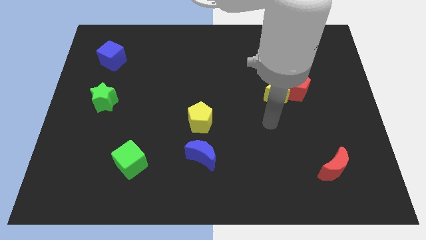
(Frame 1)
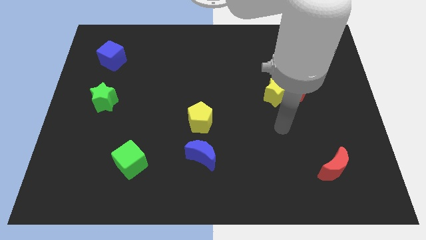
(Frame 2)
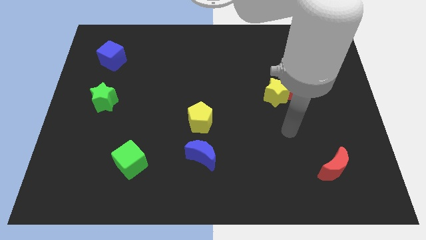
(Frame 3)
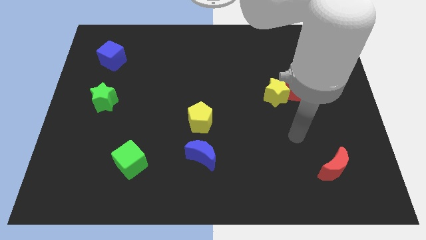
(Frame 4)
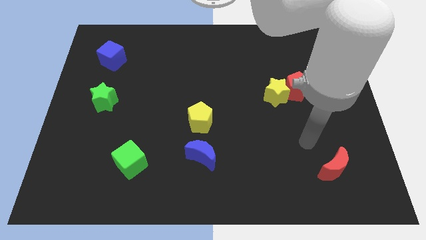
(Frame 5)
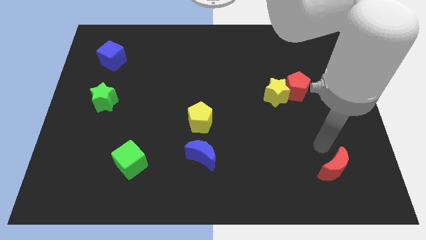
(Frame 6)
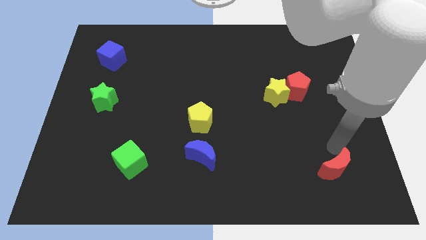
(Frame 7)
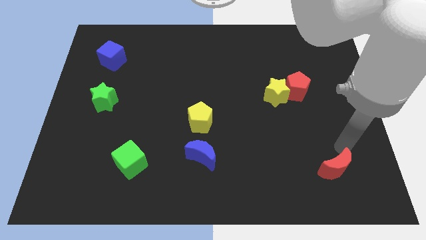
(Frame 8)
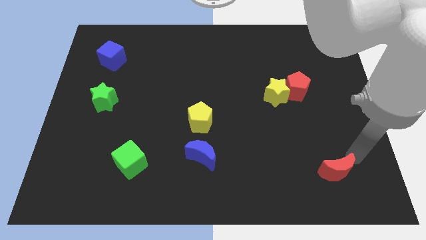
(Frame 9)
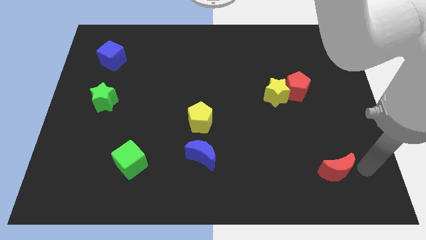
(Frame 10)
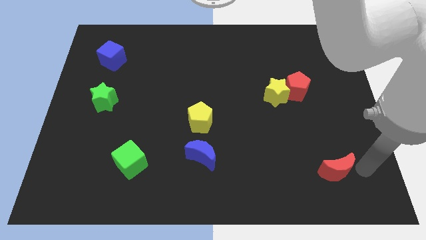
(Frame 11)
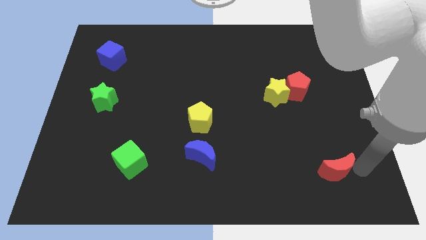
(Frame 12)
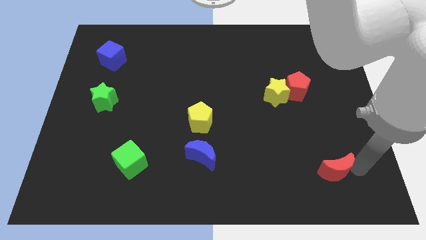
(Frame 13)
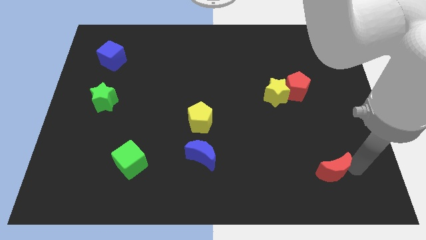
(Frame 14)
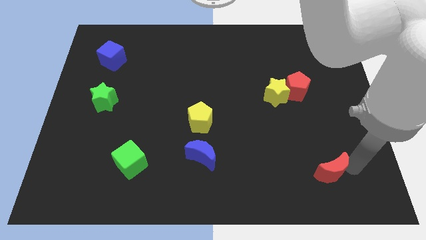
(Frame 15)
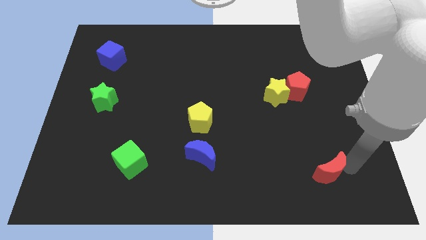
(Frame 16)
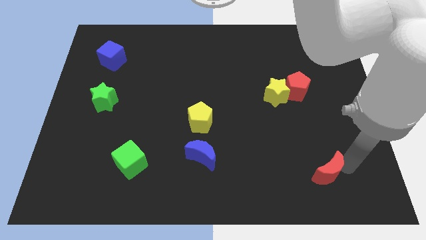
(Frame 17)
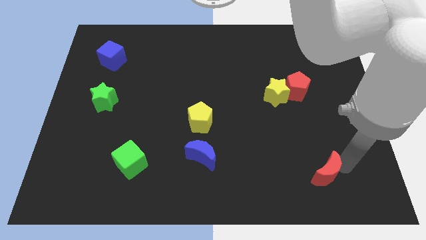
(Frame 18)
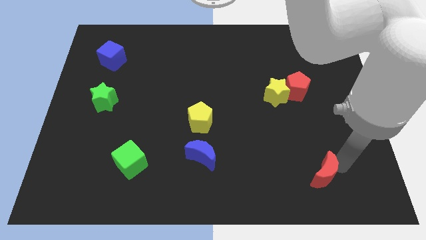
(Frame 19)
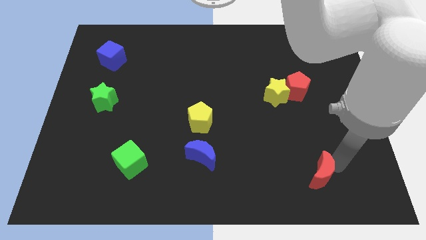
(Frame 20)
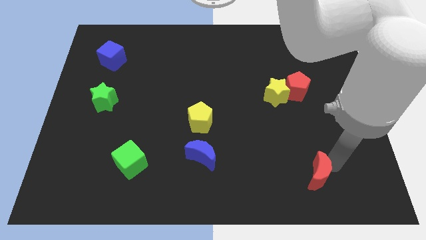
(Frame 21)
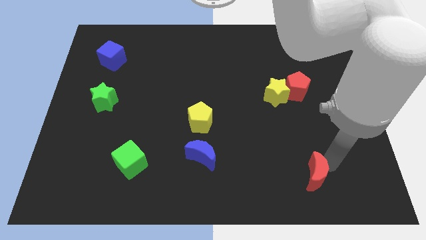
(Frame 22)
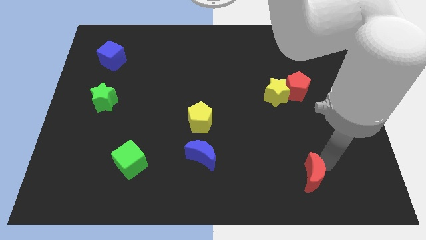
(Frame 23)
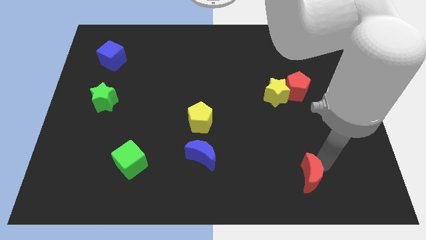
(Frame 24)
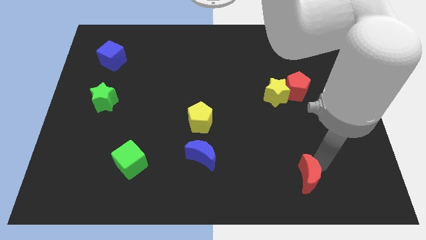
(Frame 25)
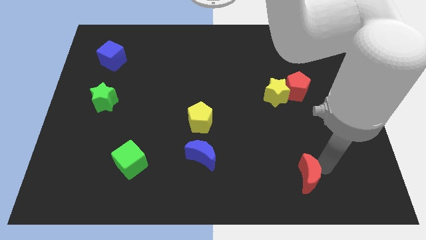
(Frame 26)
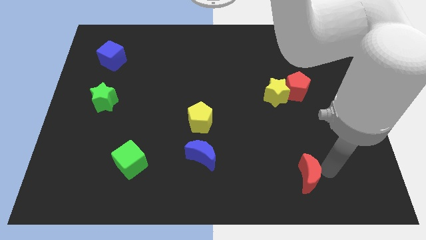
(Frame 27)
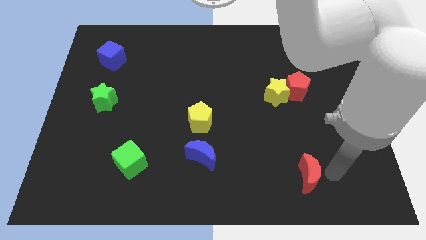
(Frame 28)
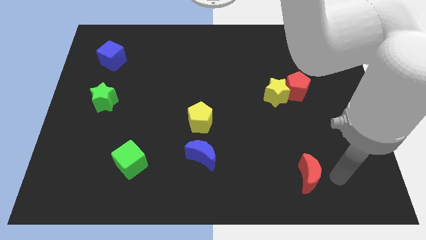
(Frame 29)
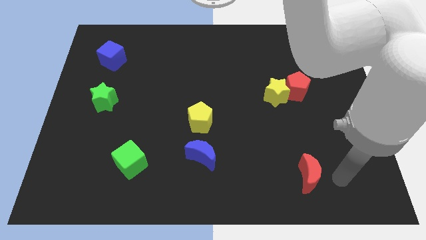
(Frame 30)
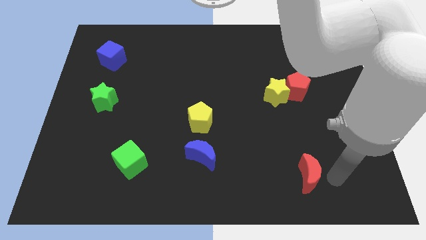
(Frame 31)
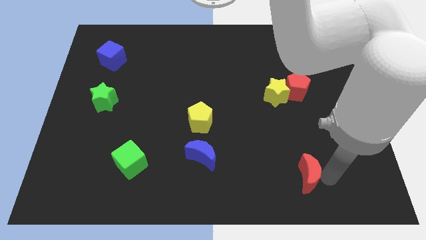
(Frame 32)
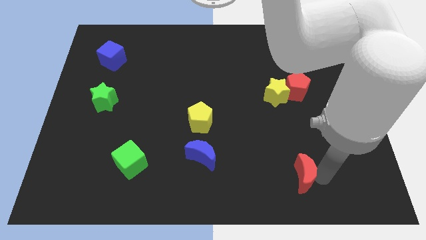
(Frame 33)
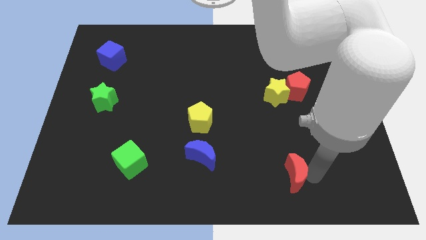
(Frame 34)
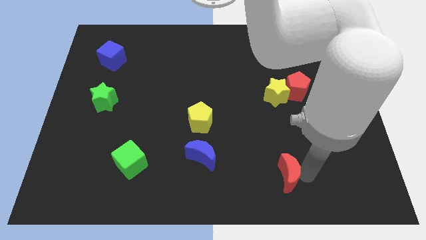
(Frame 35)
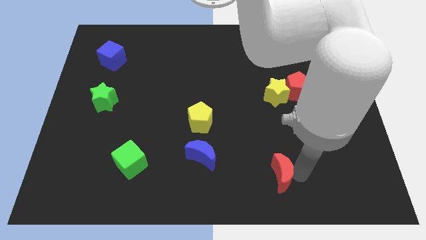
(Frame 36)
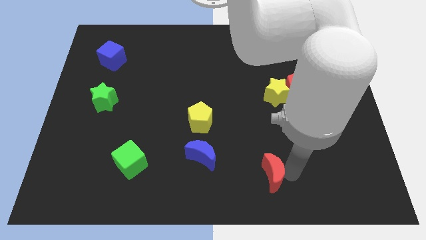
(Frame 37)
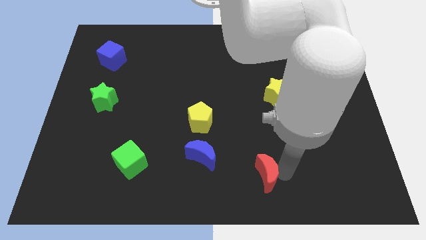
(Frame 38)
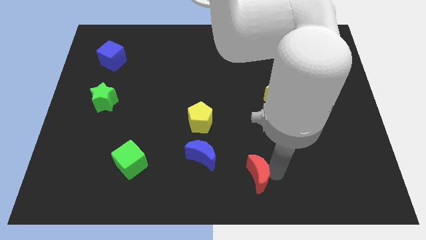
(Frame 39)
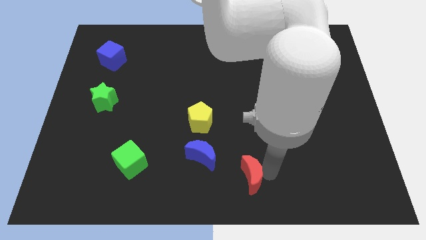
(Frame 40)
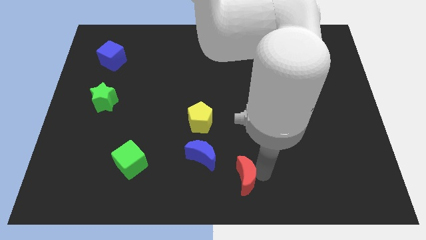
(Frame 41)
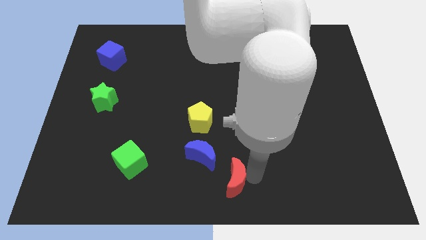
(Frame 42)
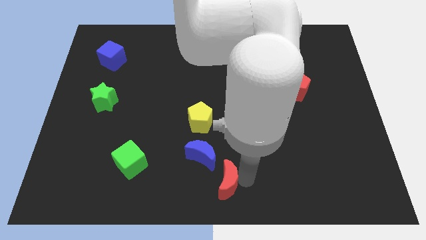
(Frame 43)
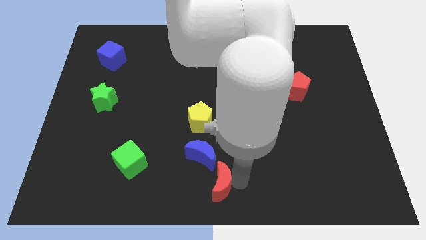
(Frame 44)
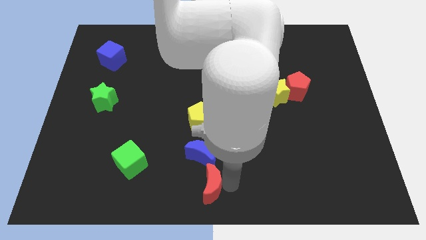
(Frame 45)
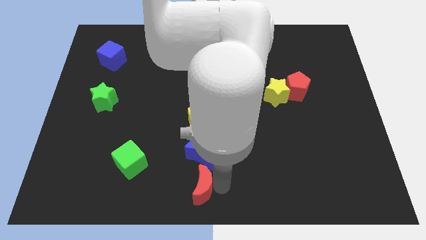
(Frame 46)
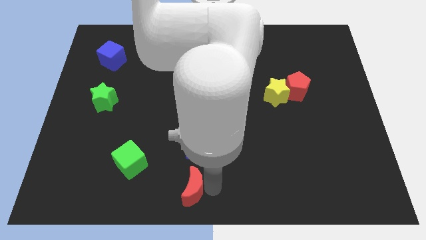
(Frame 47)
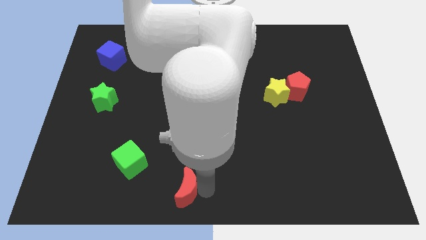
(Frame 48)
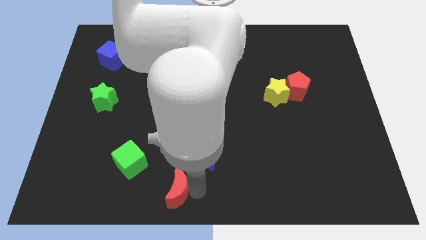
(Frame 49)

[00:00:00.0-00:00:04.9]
push the red moon diagonally down and to the right of the green cube

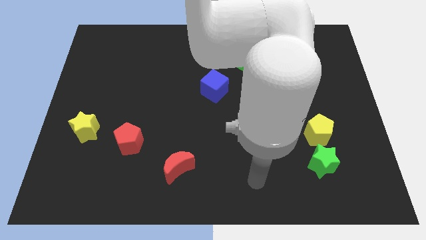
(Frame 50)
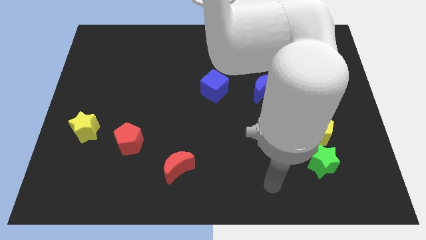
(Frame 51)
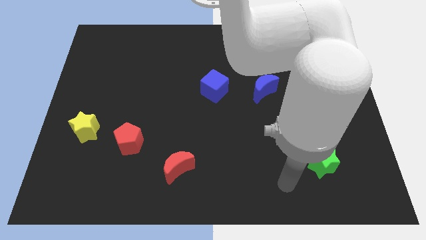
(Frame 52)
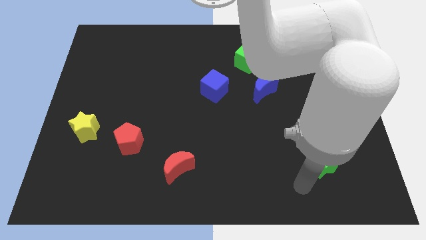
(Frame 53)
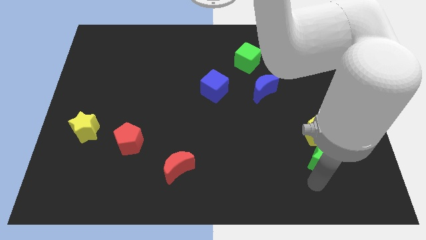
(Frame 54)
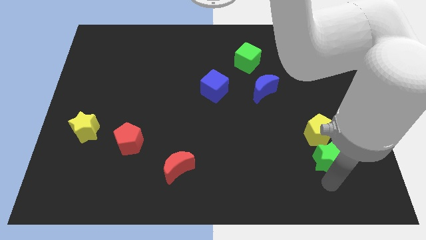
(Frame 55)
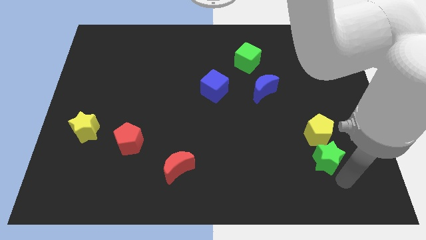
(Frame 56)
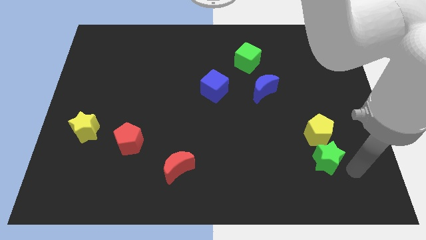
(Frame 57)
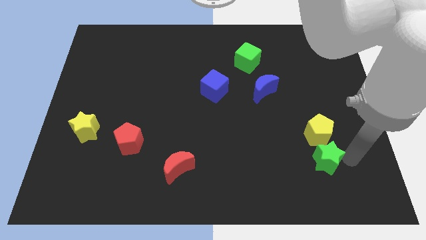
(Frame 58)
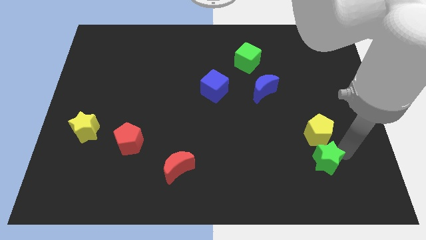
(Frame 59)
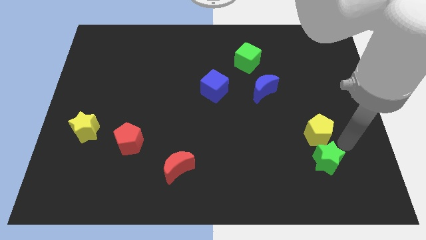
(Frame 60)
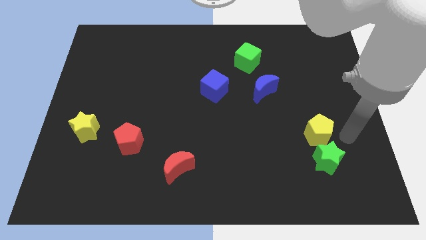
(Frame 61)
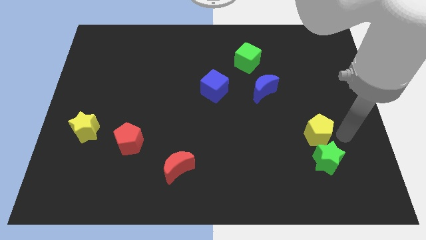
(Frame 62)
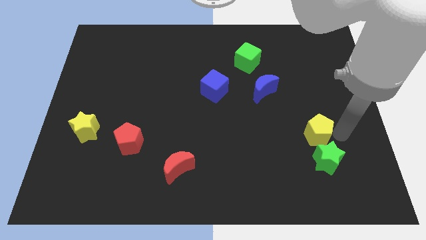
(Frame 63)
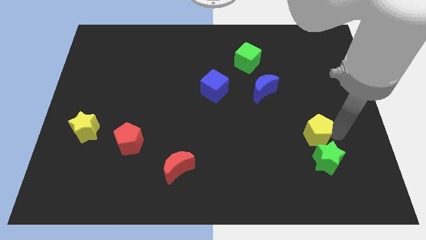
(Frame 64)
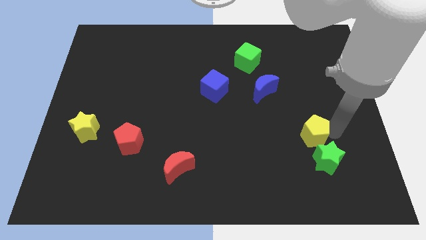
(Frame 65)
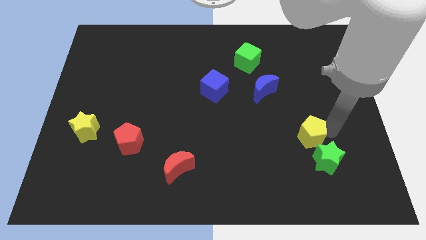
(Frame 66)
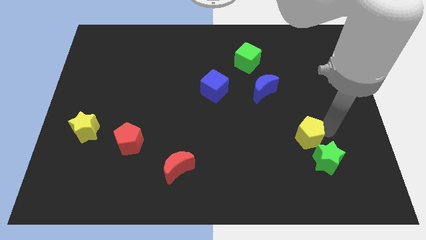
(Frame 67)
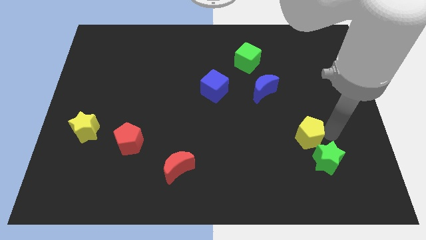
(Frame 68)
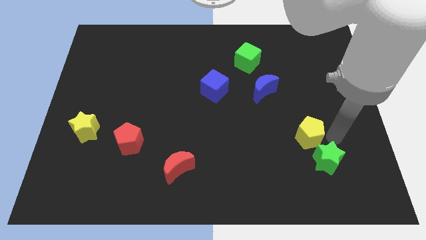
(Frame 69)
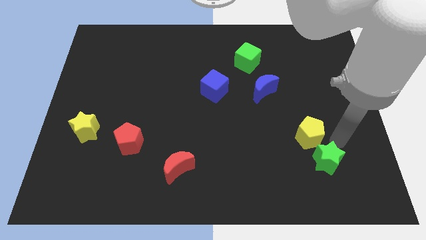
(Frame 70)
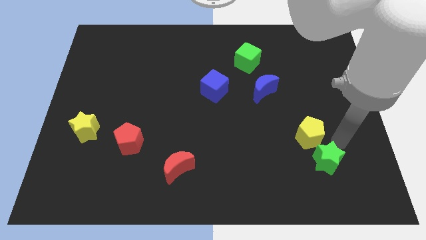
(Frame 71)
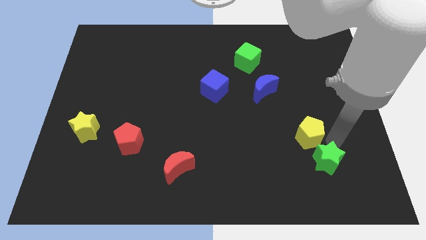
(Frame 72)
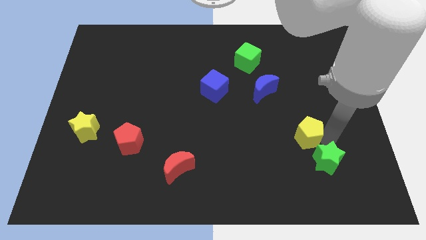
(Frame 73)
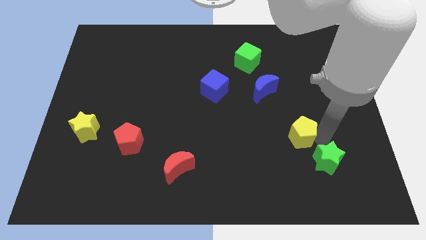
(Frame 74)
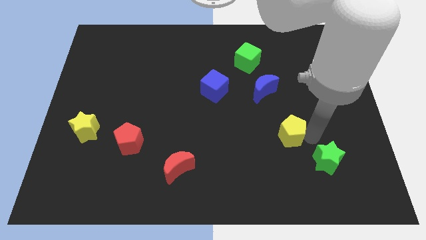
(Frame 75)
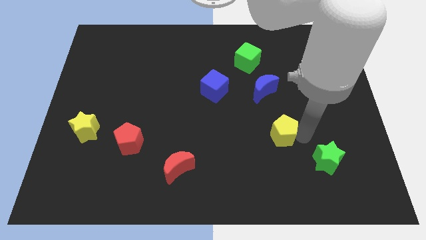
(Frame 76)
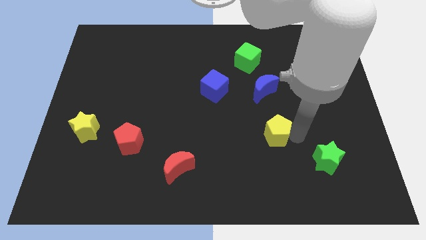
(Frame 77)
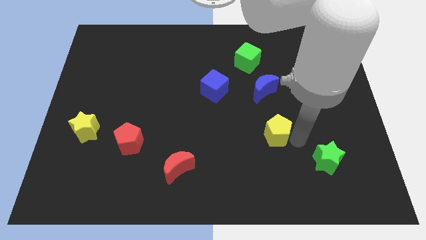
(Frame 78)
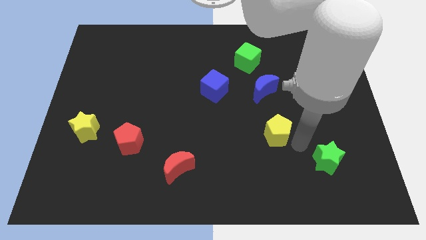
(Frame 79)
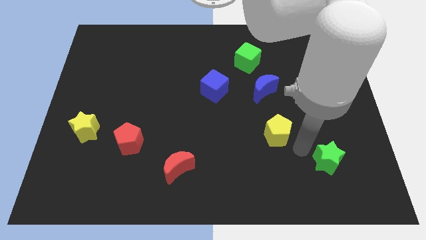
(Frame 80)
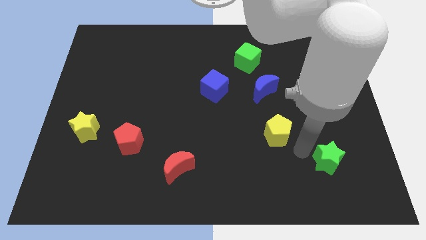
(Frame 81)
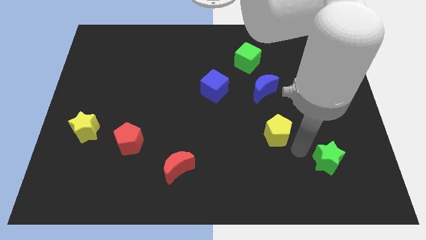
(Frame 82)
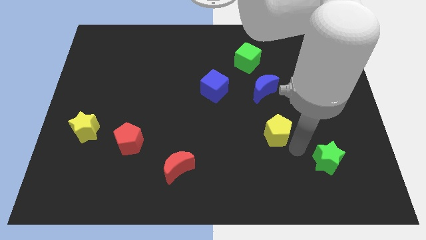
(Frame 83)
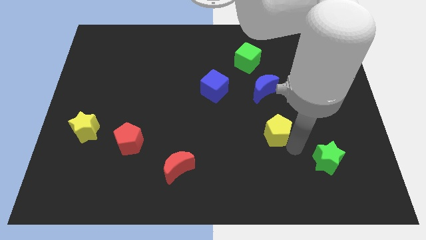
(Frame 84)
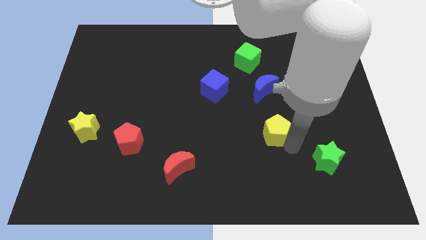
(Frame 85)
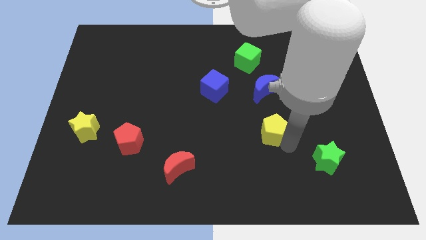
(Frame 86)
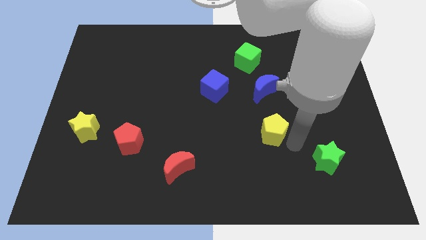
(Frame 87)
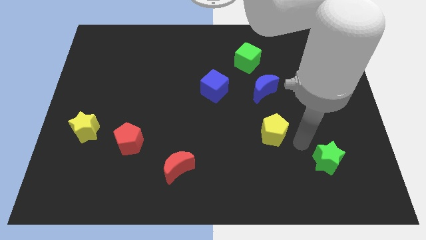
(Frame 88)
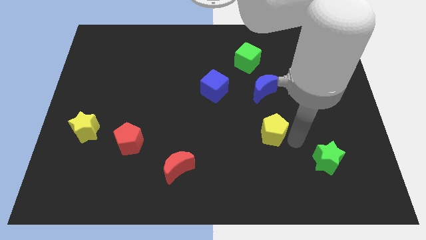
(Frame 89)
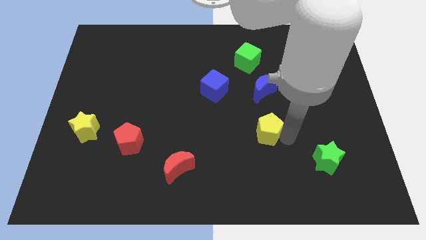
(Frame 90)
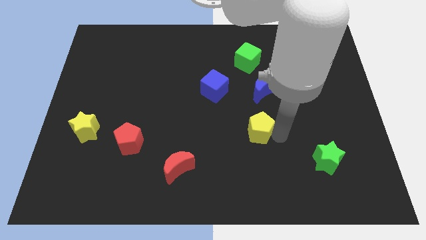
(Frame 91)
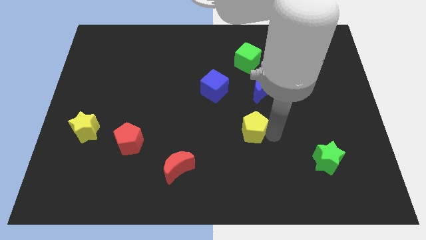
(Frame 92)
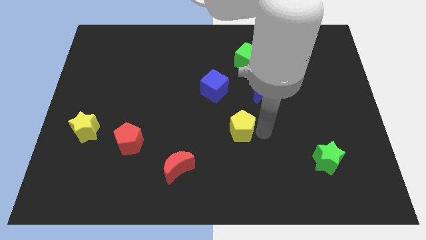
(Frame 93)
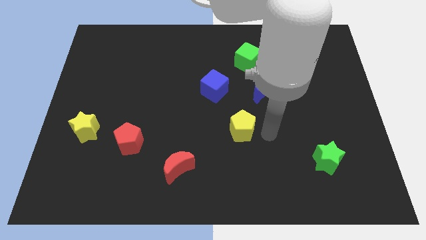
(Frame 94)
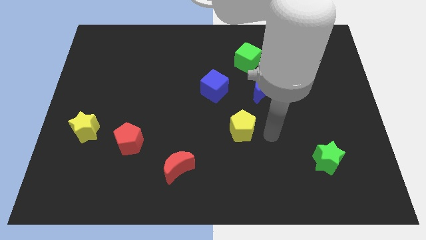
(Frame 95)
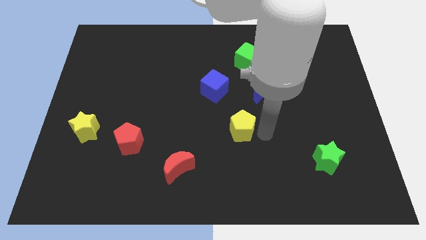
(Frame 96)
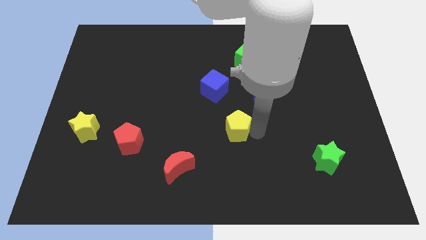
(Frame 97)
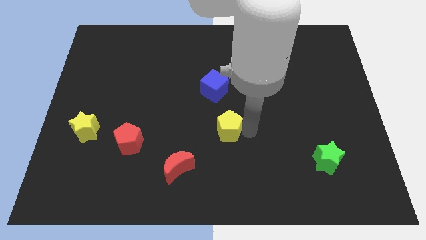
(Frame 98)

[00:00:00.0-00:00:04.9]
put the yellow pentagon to the bottom side of the blue cube
